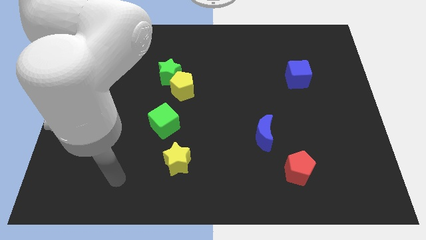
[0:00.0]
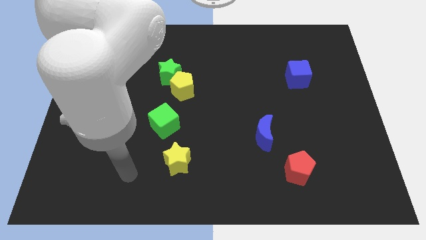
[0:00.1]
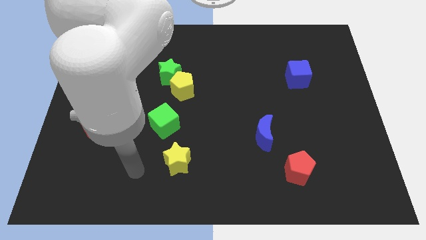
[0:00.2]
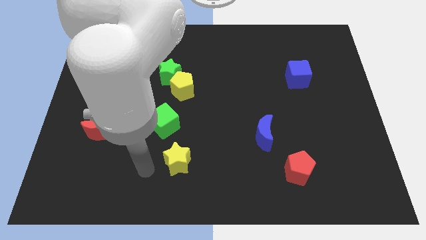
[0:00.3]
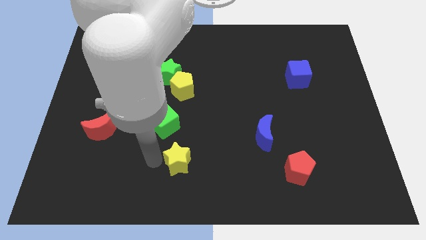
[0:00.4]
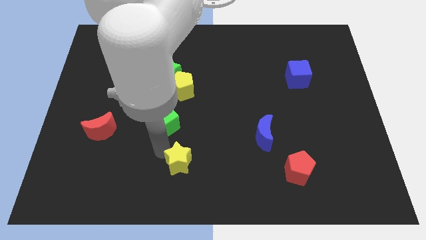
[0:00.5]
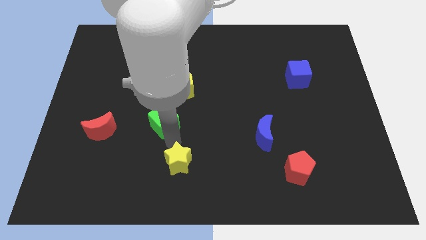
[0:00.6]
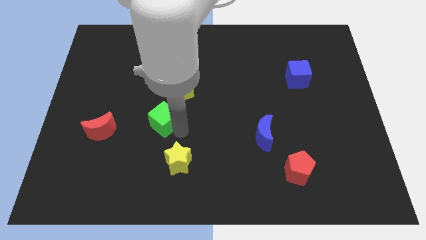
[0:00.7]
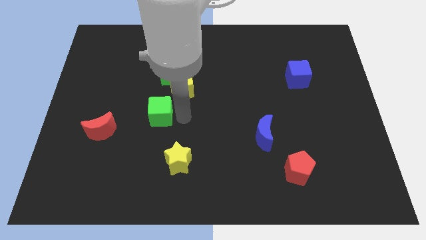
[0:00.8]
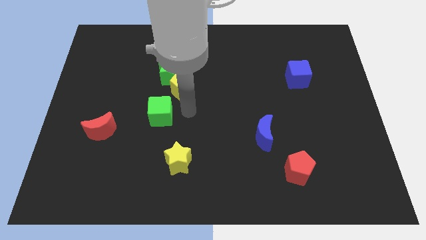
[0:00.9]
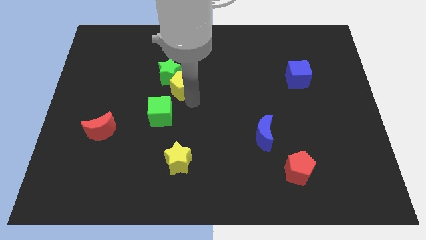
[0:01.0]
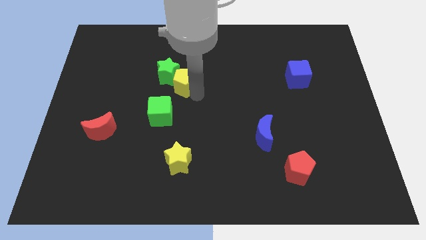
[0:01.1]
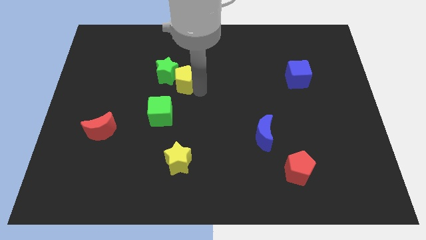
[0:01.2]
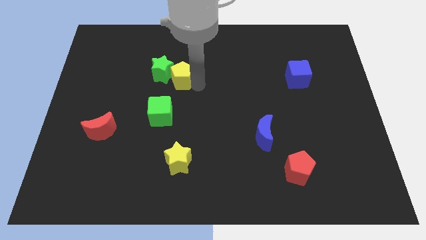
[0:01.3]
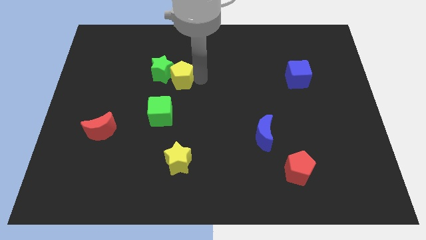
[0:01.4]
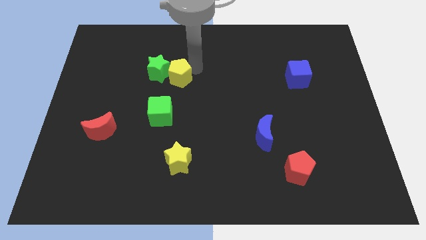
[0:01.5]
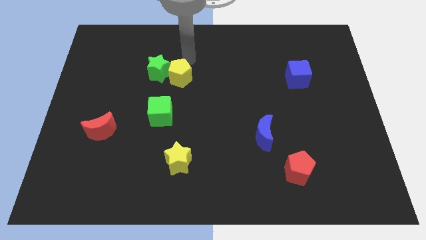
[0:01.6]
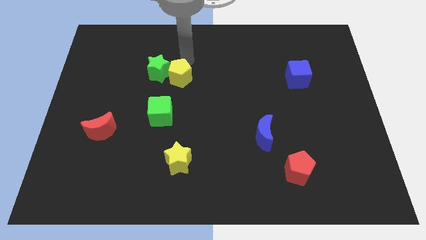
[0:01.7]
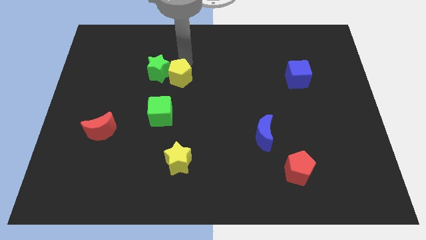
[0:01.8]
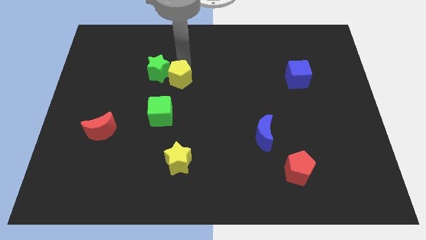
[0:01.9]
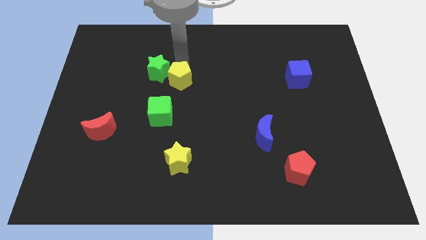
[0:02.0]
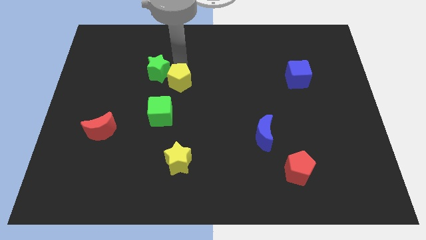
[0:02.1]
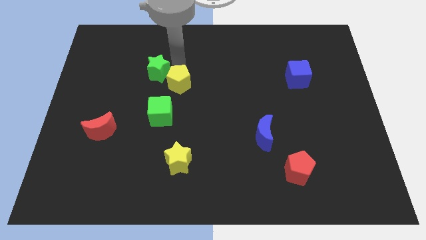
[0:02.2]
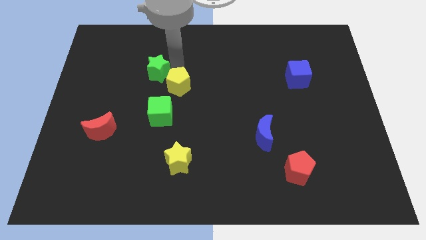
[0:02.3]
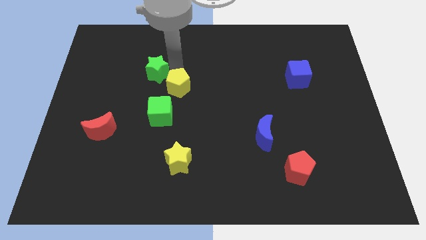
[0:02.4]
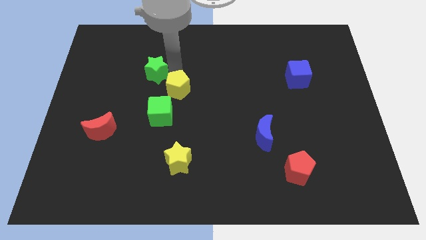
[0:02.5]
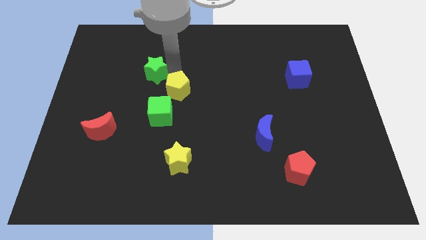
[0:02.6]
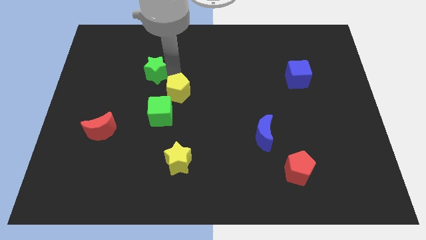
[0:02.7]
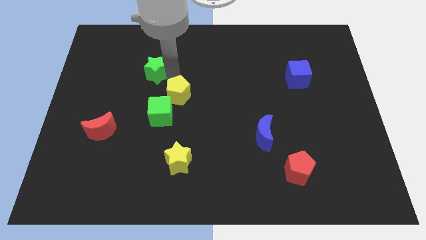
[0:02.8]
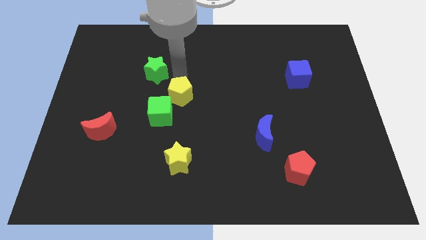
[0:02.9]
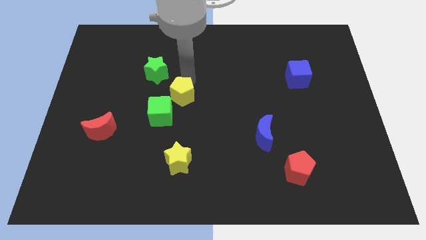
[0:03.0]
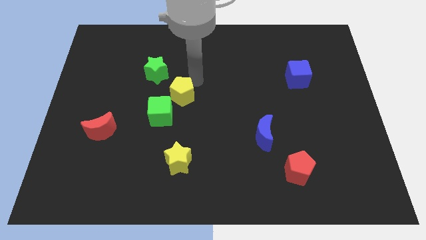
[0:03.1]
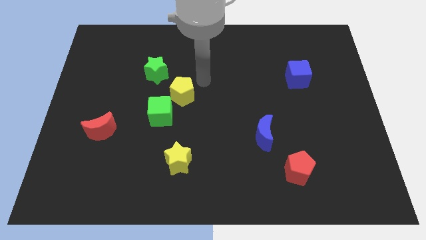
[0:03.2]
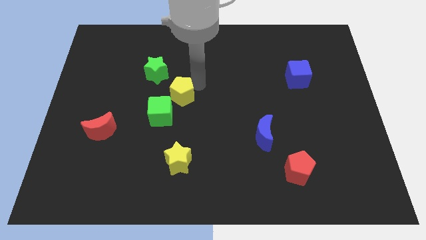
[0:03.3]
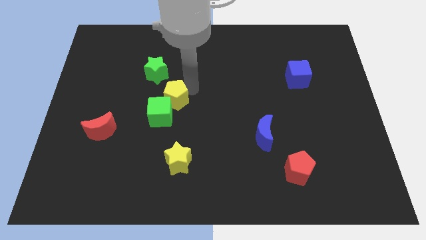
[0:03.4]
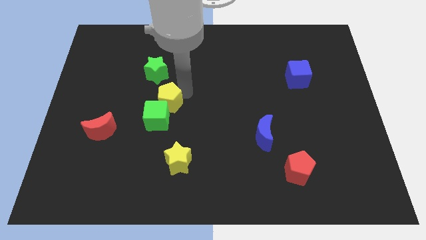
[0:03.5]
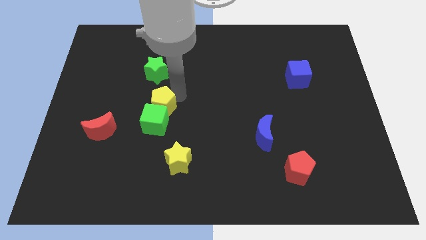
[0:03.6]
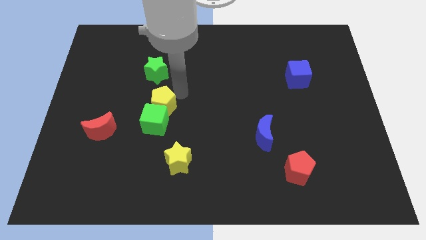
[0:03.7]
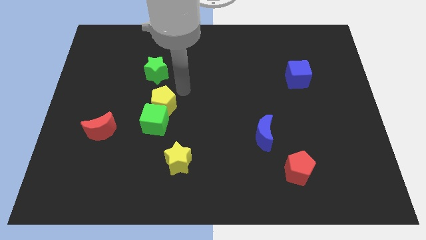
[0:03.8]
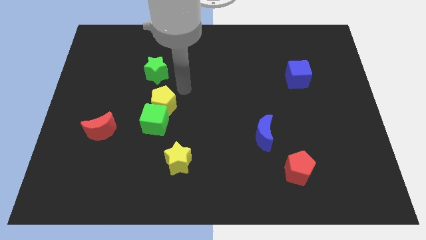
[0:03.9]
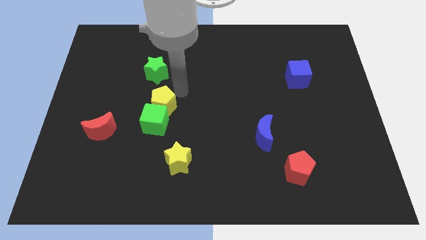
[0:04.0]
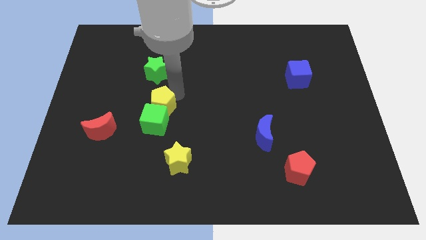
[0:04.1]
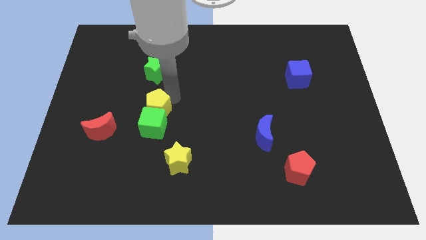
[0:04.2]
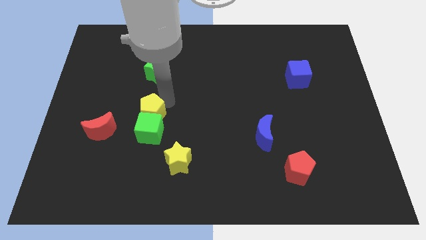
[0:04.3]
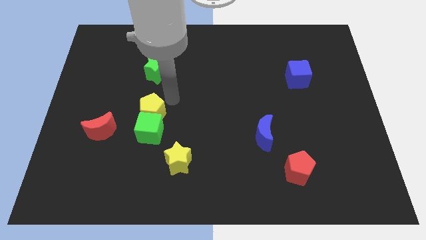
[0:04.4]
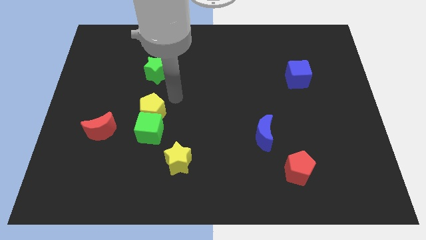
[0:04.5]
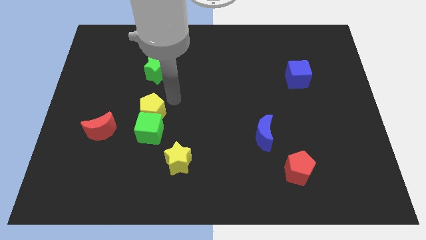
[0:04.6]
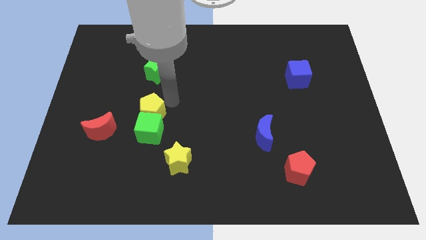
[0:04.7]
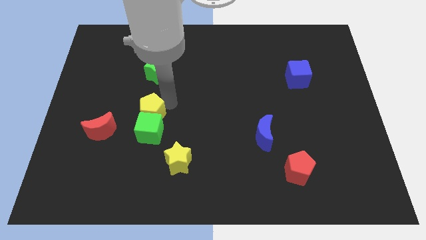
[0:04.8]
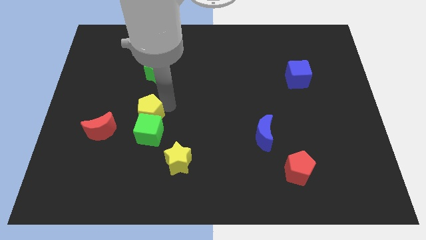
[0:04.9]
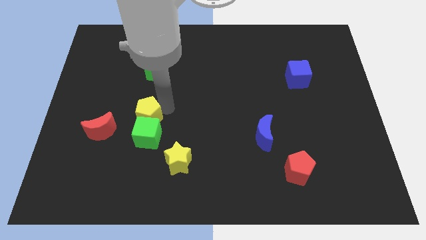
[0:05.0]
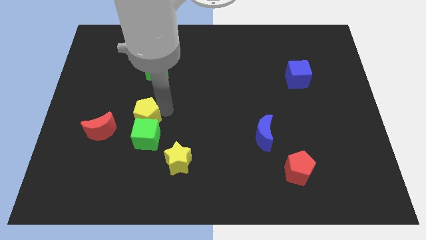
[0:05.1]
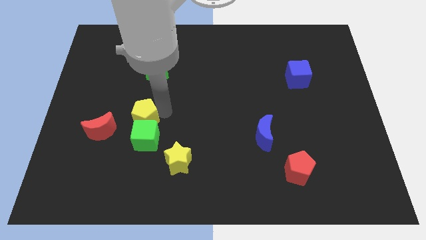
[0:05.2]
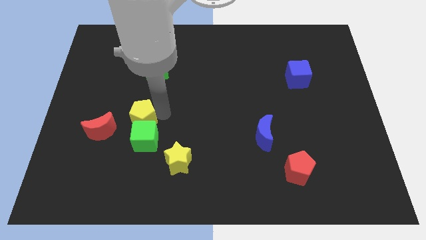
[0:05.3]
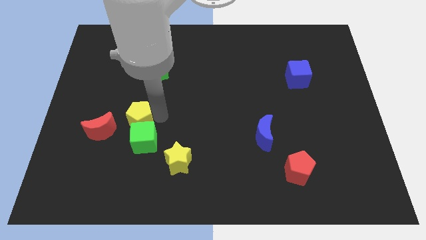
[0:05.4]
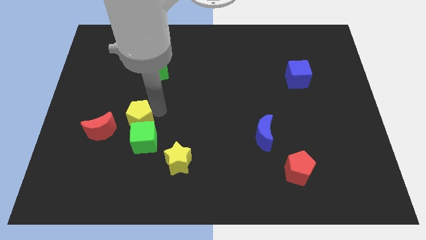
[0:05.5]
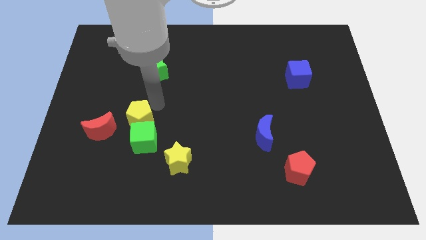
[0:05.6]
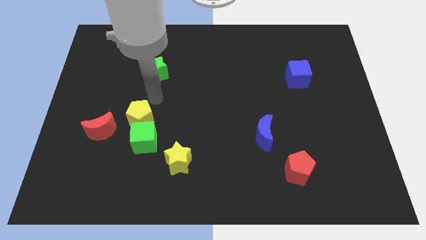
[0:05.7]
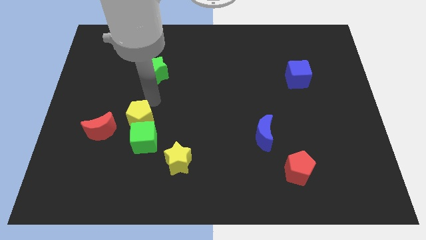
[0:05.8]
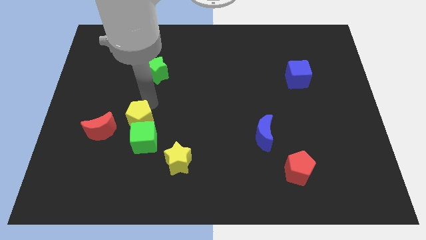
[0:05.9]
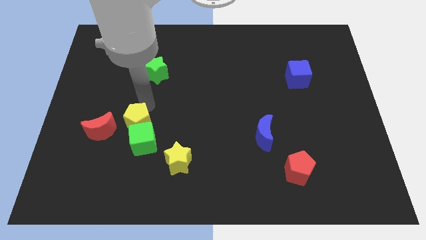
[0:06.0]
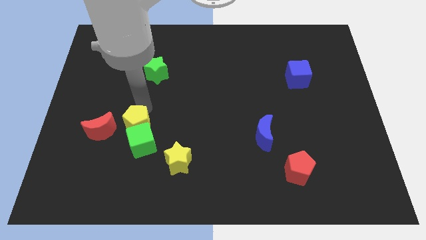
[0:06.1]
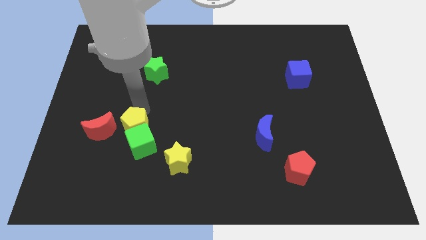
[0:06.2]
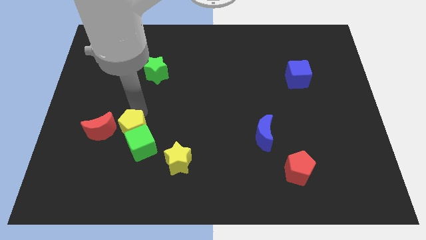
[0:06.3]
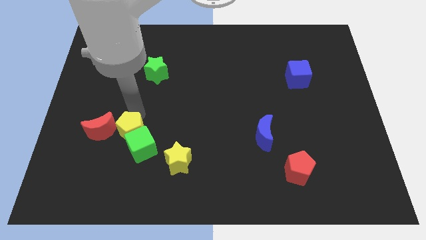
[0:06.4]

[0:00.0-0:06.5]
move the yellow pentagon diagonally down and to the right of the red moon

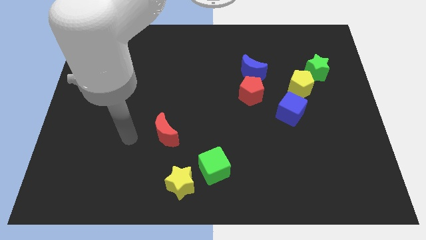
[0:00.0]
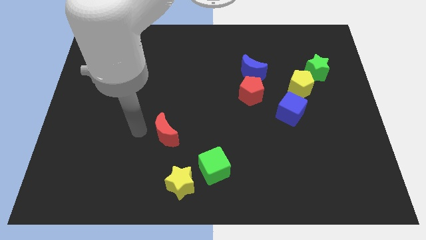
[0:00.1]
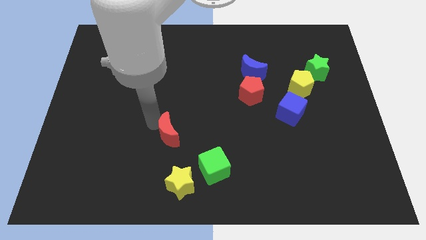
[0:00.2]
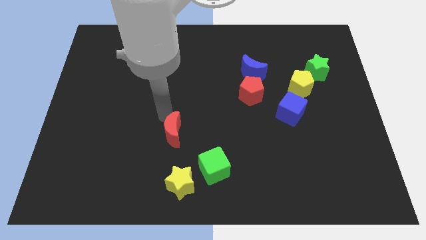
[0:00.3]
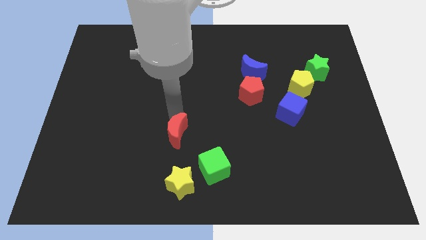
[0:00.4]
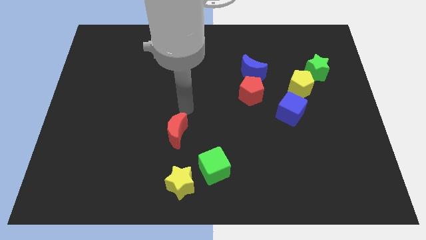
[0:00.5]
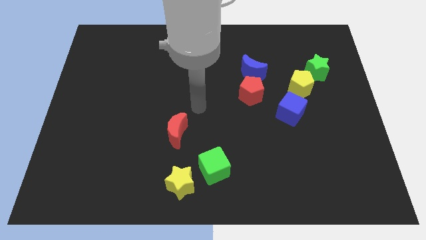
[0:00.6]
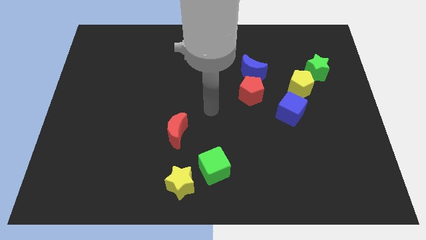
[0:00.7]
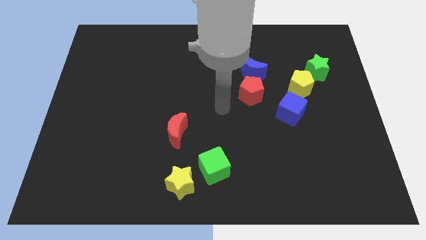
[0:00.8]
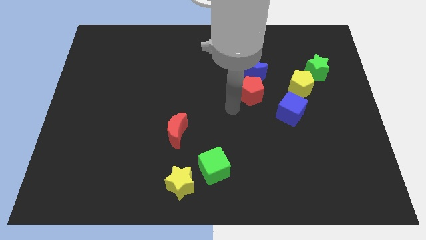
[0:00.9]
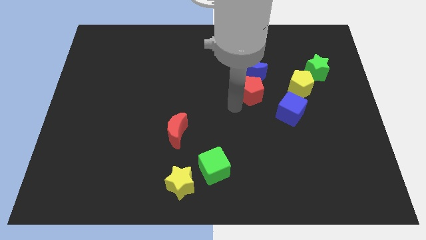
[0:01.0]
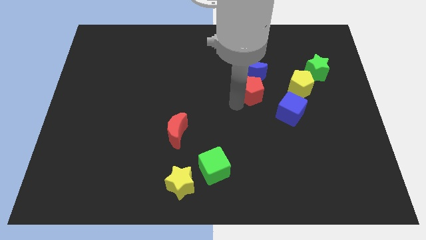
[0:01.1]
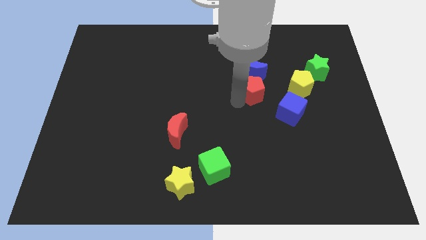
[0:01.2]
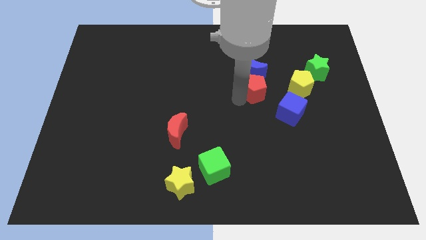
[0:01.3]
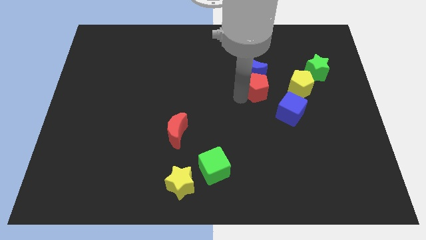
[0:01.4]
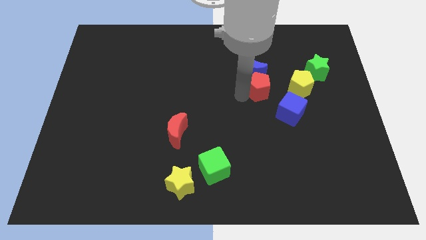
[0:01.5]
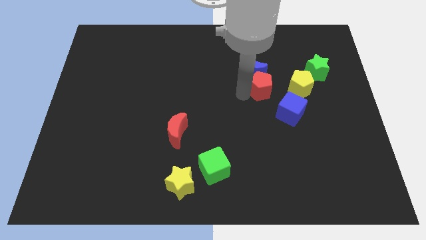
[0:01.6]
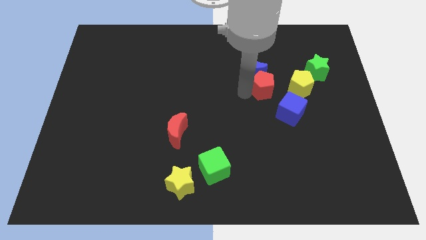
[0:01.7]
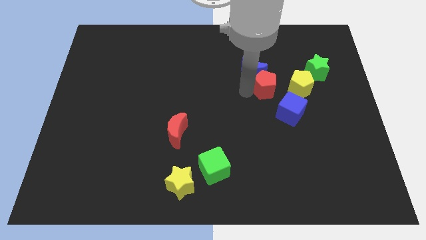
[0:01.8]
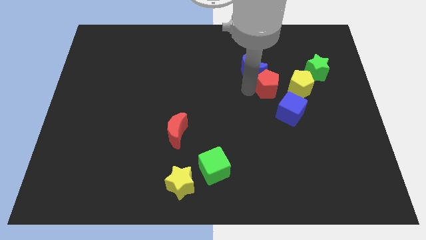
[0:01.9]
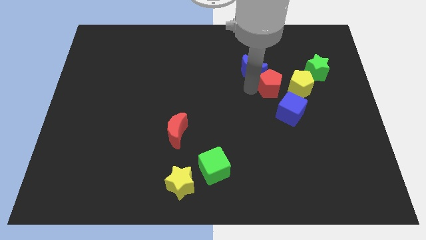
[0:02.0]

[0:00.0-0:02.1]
put the red pentagon to the top left side of the yellow pentagon
